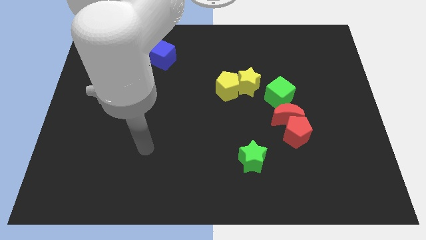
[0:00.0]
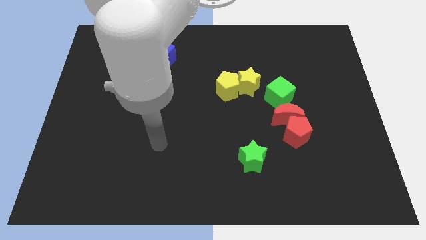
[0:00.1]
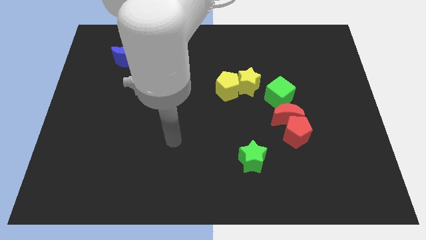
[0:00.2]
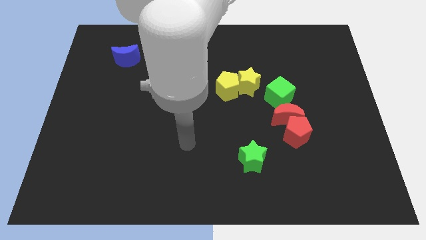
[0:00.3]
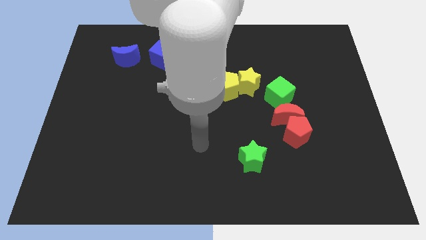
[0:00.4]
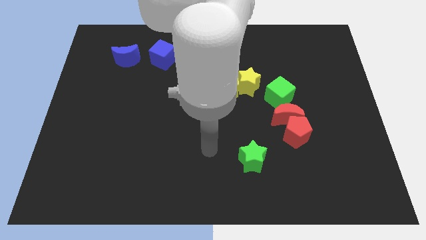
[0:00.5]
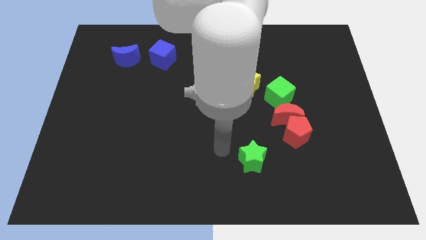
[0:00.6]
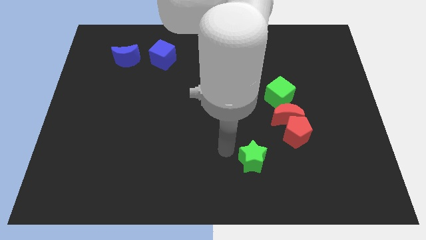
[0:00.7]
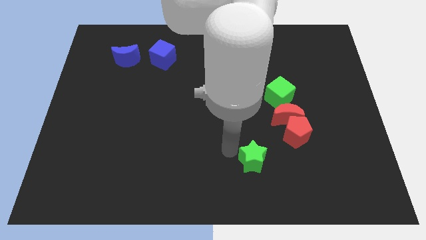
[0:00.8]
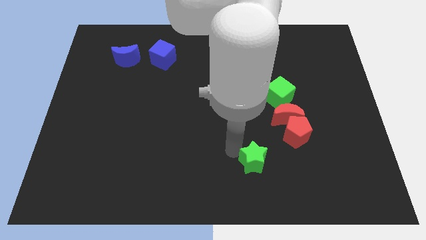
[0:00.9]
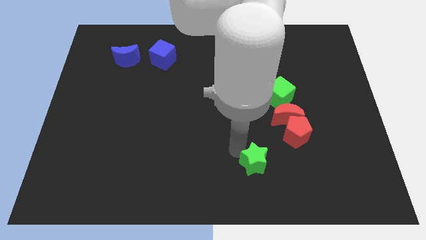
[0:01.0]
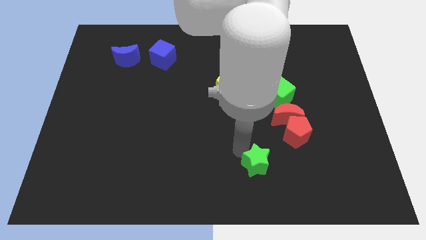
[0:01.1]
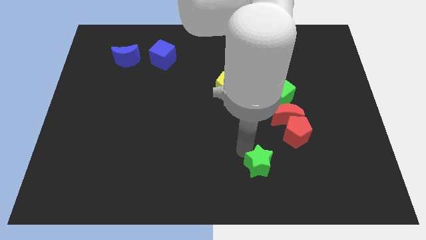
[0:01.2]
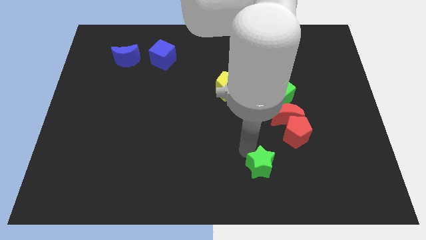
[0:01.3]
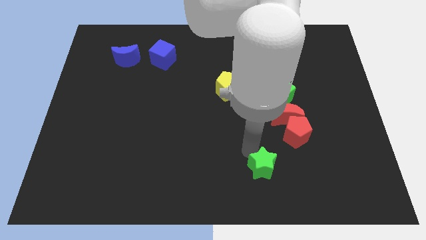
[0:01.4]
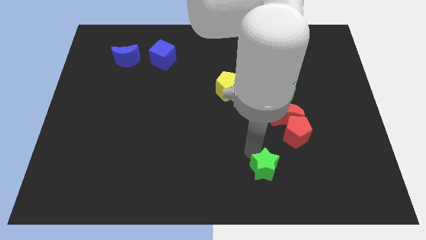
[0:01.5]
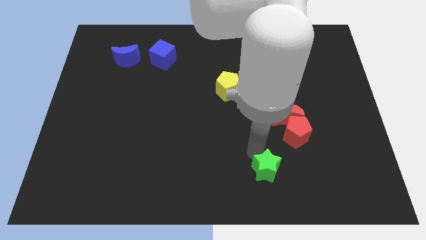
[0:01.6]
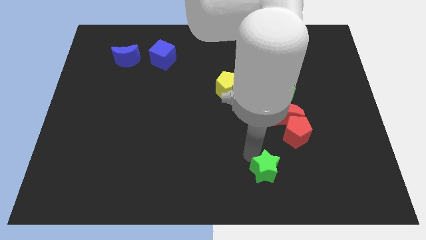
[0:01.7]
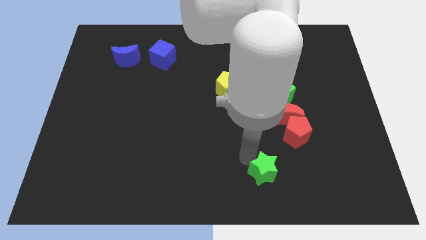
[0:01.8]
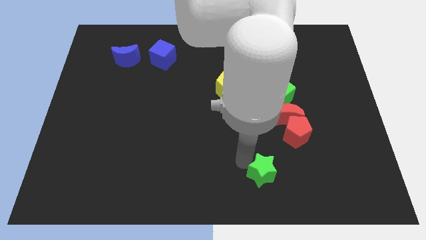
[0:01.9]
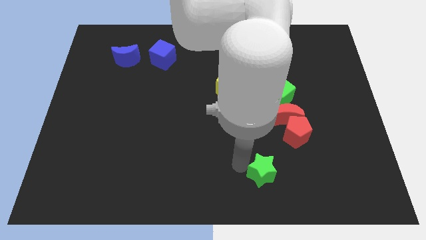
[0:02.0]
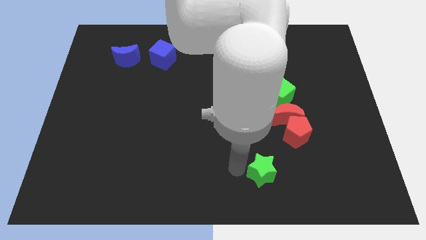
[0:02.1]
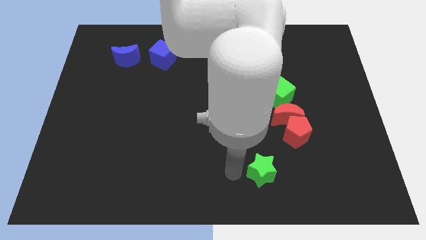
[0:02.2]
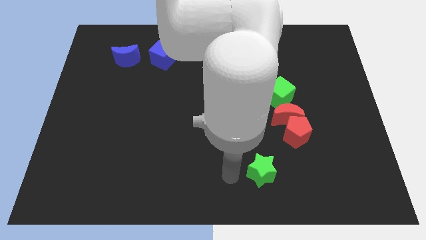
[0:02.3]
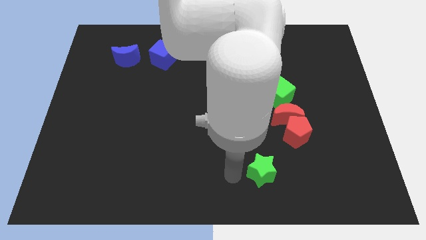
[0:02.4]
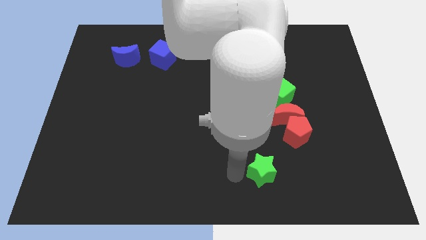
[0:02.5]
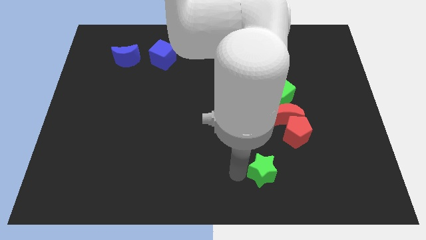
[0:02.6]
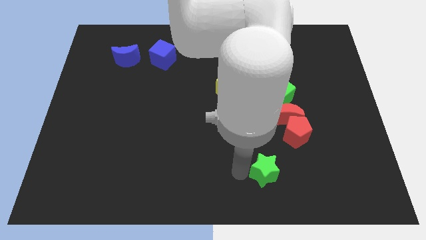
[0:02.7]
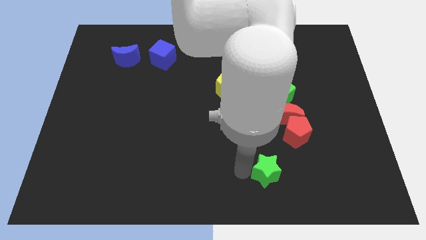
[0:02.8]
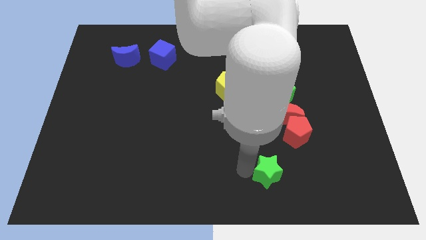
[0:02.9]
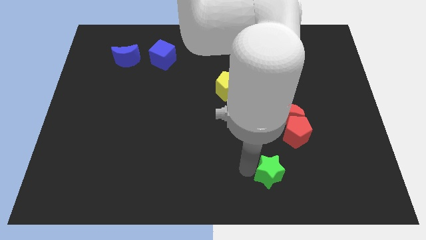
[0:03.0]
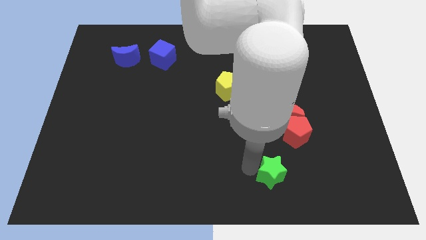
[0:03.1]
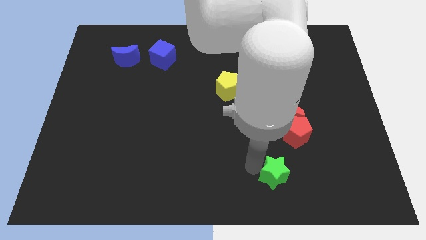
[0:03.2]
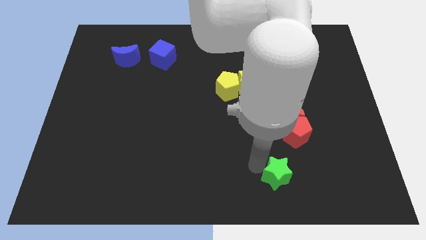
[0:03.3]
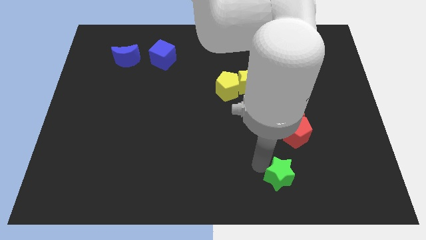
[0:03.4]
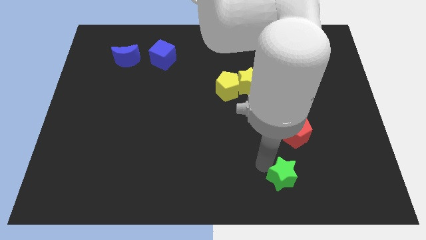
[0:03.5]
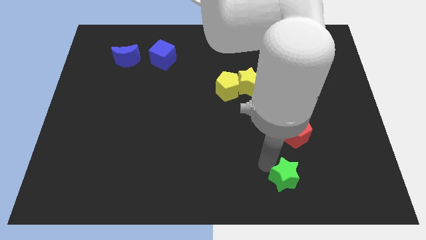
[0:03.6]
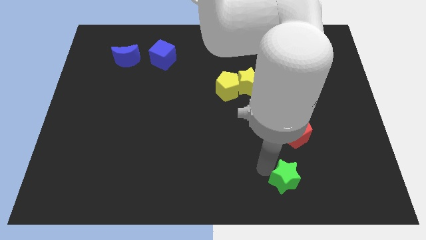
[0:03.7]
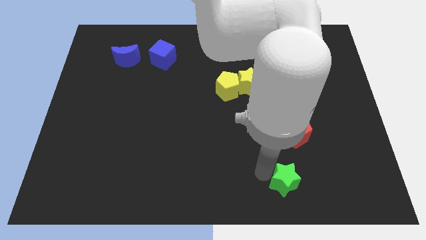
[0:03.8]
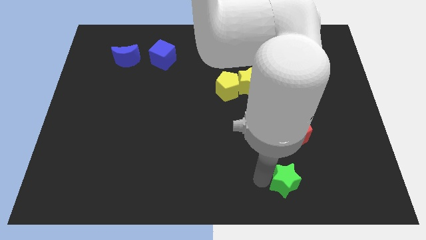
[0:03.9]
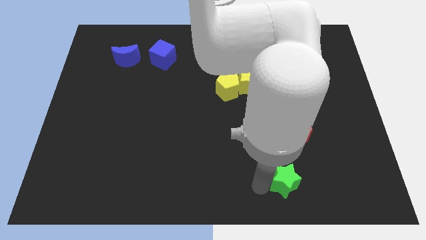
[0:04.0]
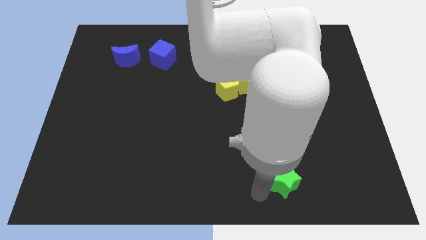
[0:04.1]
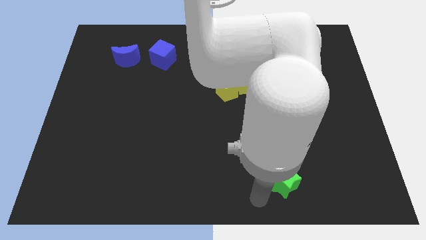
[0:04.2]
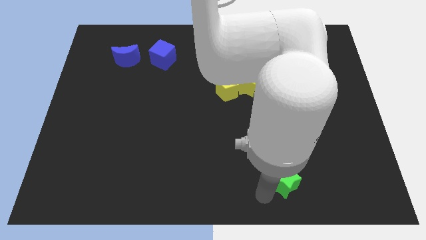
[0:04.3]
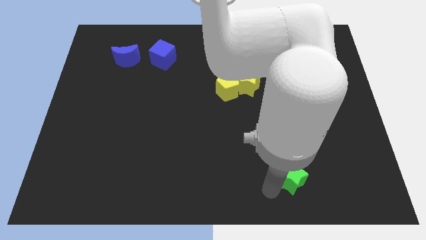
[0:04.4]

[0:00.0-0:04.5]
slightly slide the green star to the right

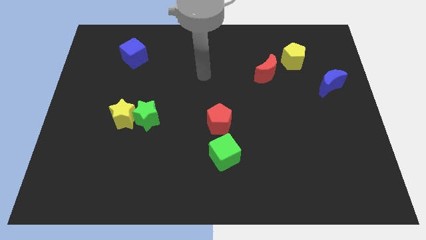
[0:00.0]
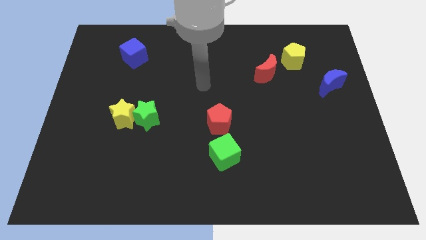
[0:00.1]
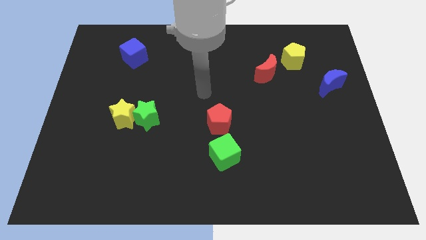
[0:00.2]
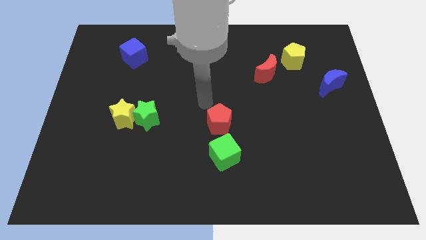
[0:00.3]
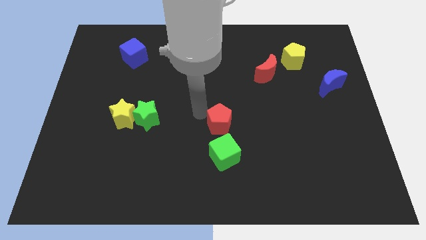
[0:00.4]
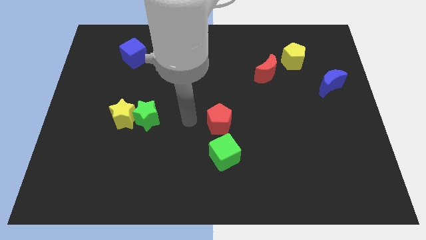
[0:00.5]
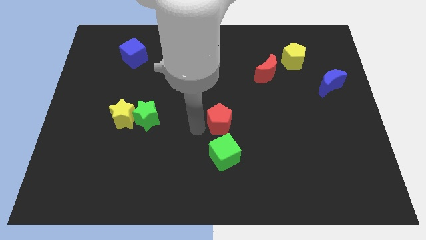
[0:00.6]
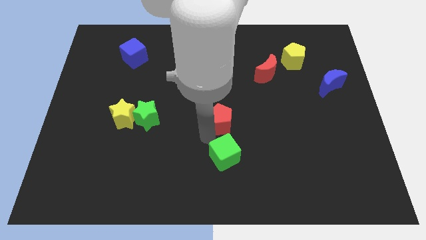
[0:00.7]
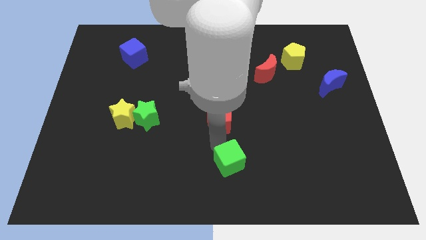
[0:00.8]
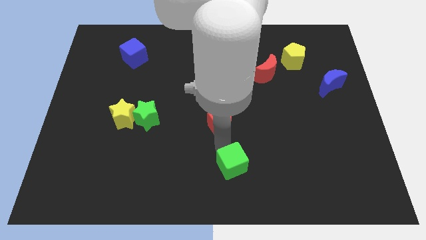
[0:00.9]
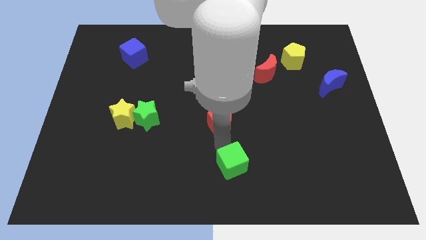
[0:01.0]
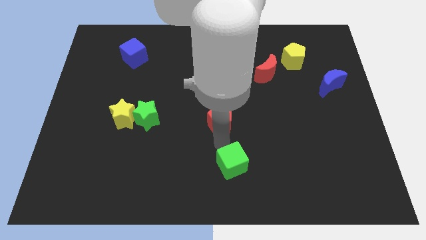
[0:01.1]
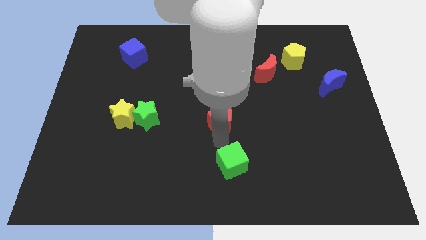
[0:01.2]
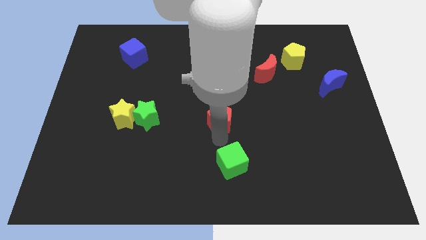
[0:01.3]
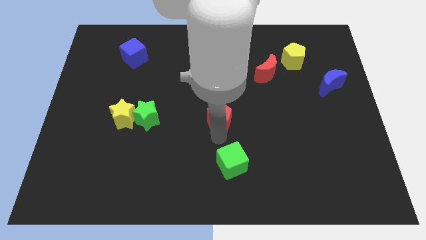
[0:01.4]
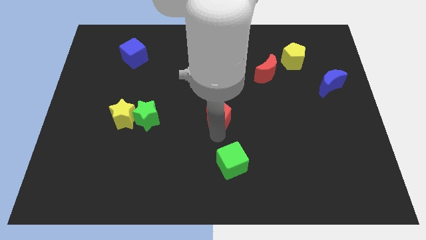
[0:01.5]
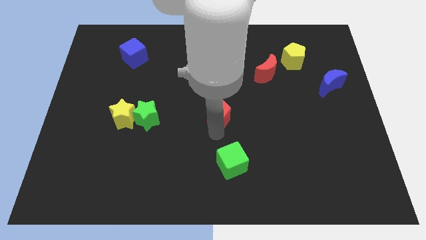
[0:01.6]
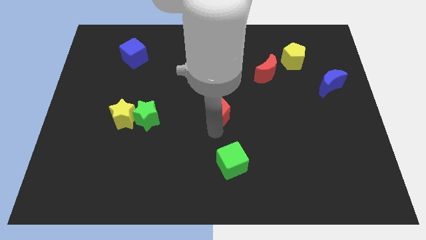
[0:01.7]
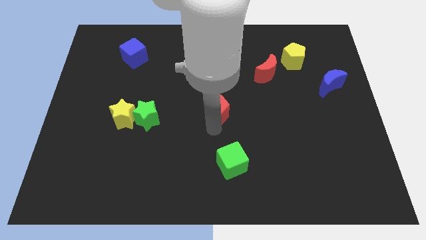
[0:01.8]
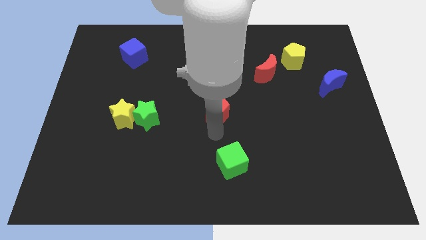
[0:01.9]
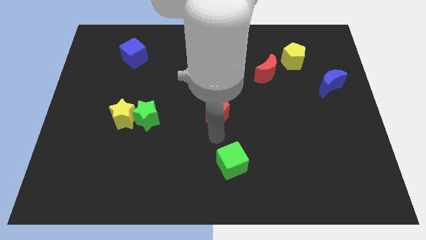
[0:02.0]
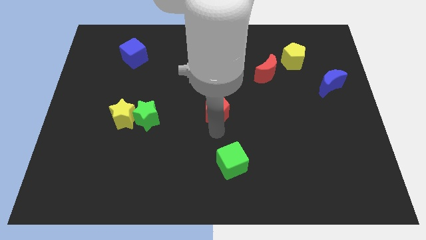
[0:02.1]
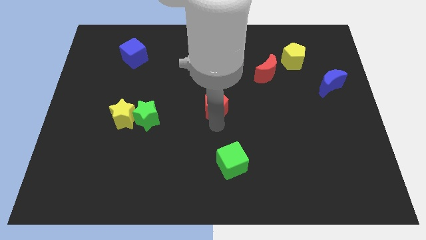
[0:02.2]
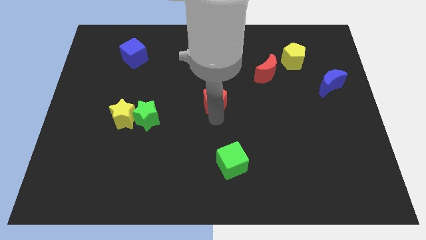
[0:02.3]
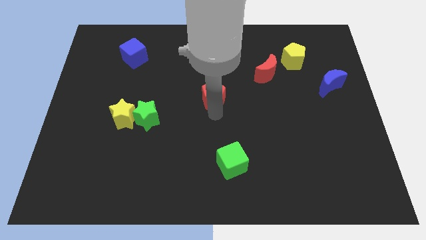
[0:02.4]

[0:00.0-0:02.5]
slightly slide the red pentagon up

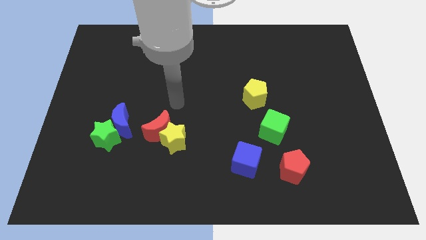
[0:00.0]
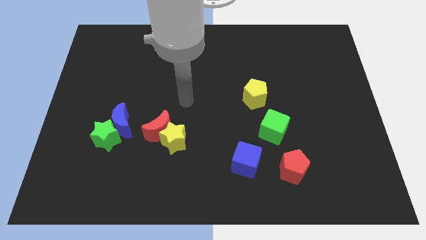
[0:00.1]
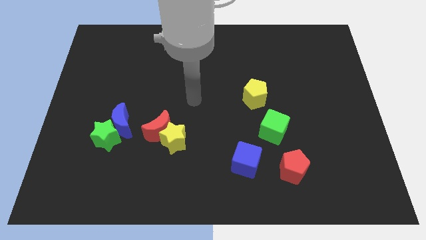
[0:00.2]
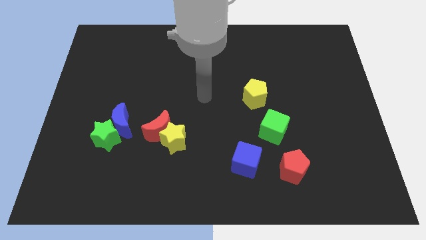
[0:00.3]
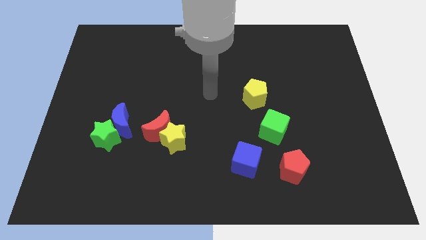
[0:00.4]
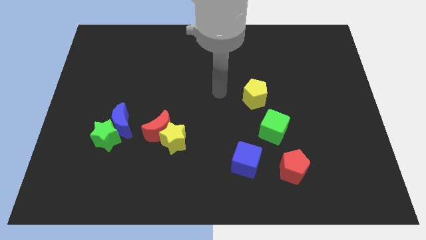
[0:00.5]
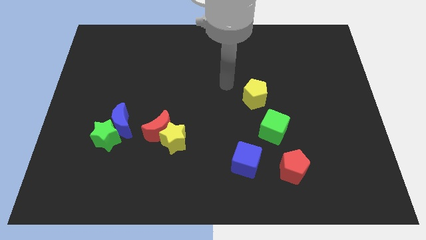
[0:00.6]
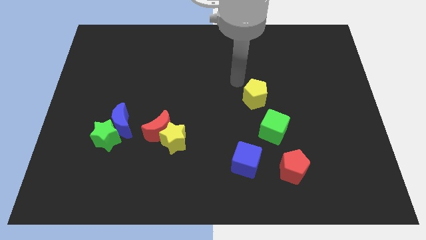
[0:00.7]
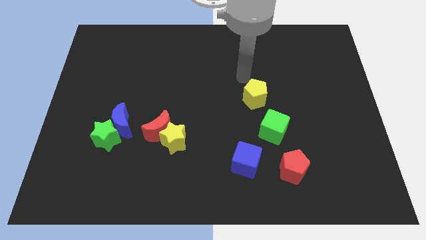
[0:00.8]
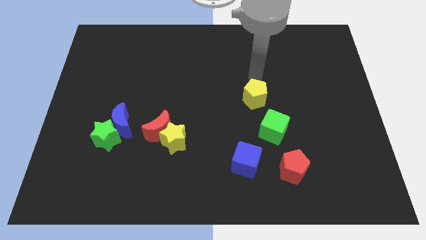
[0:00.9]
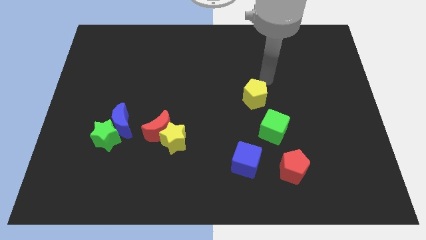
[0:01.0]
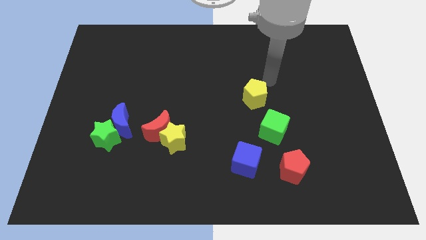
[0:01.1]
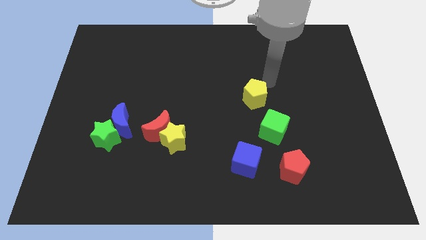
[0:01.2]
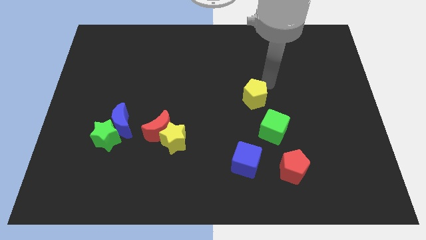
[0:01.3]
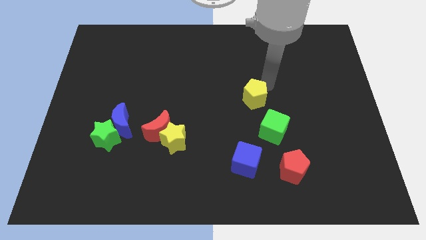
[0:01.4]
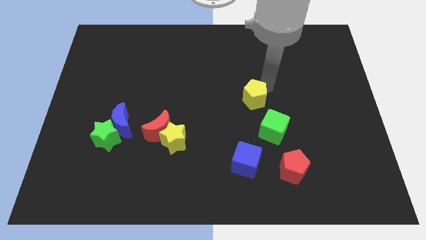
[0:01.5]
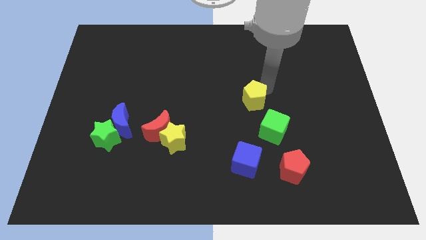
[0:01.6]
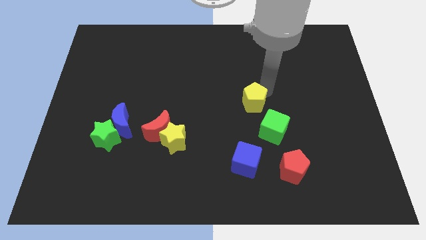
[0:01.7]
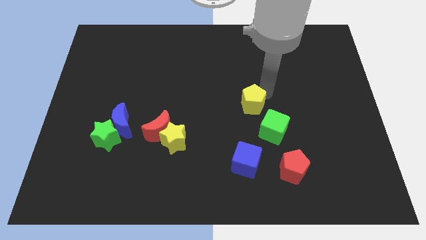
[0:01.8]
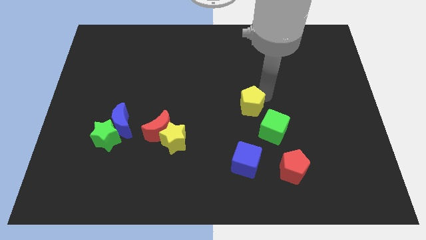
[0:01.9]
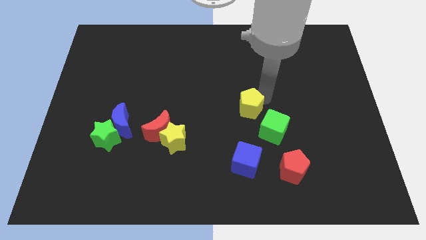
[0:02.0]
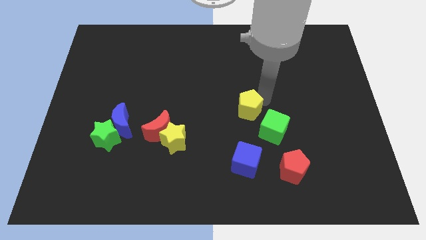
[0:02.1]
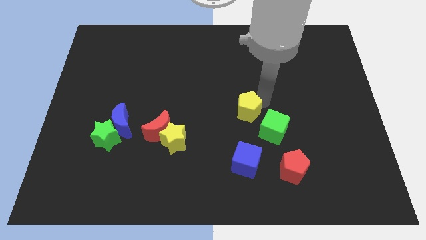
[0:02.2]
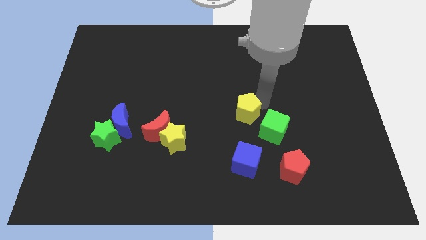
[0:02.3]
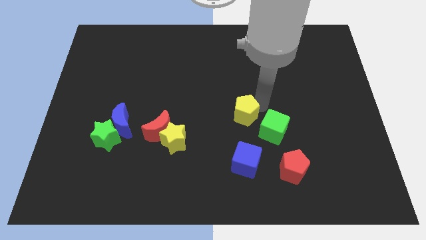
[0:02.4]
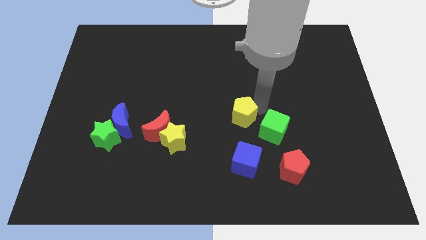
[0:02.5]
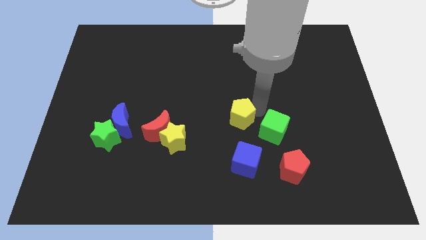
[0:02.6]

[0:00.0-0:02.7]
slightly slide the yellow pentagon diagonally down and left
